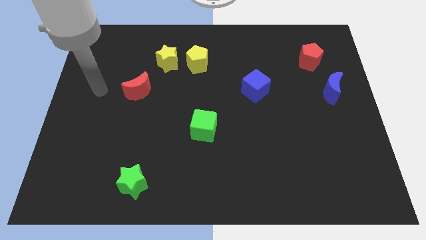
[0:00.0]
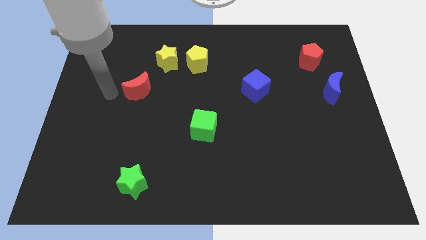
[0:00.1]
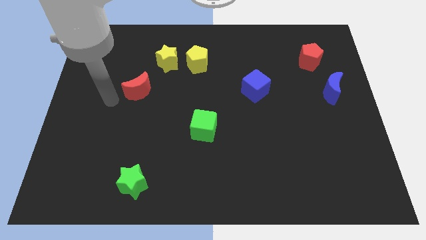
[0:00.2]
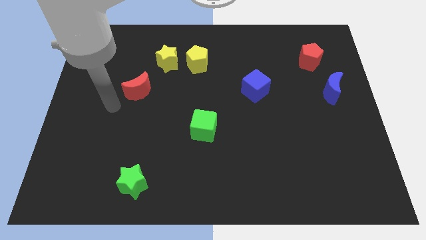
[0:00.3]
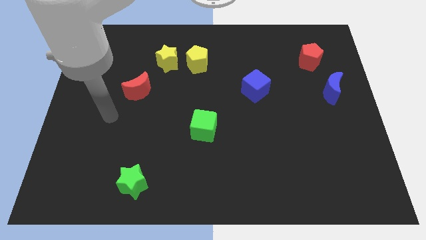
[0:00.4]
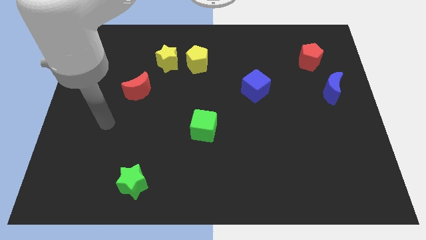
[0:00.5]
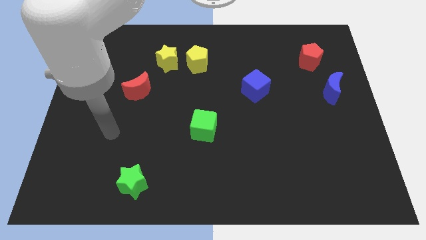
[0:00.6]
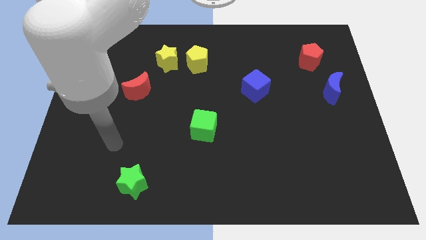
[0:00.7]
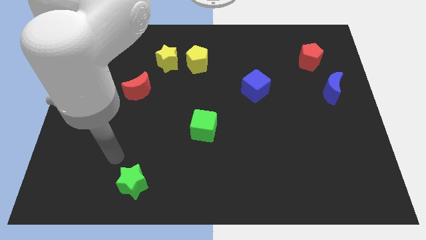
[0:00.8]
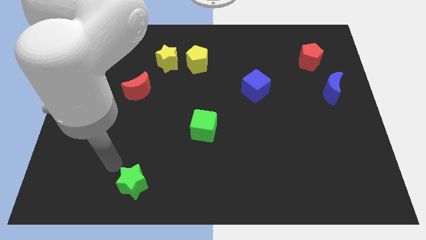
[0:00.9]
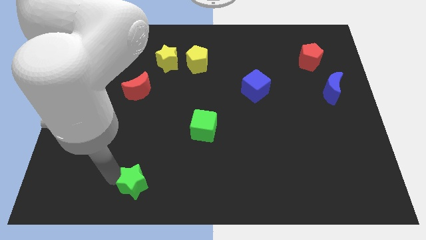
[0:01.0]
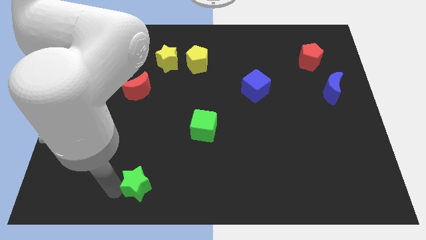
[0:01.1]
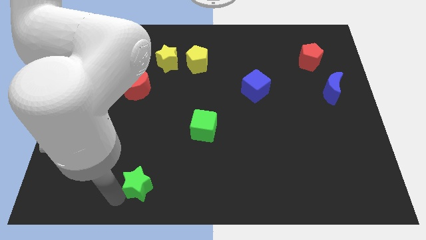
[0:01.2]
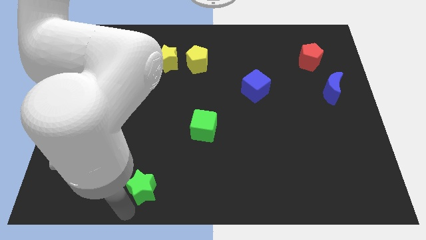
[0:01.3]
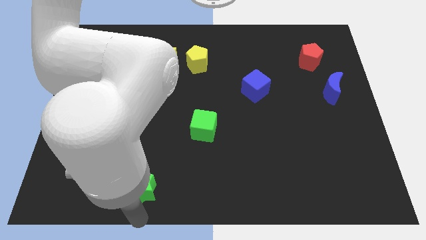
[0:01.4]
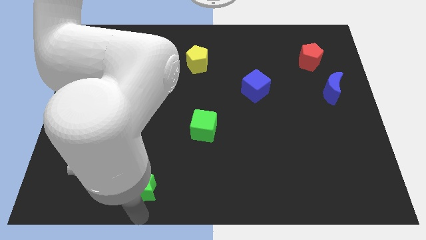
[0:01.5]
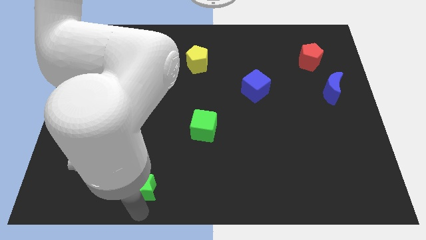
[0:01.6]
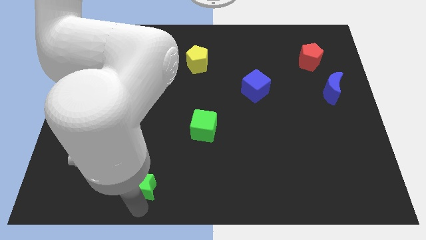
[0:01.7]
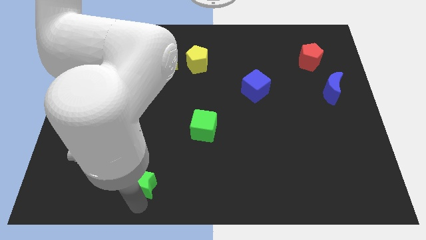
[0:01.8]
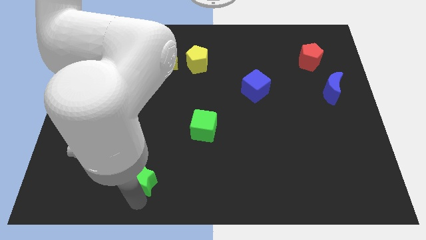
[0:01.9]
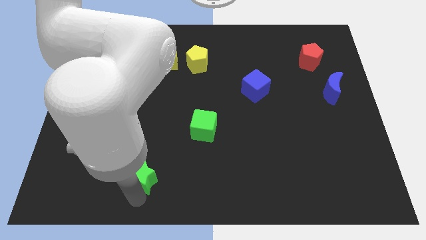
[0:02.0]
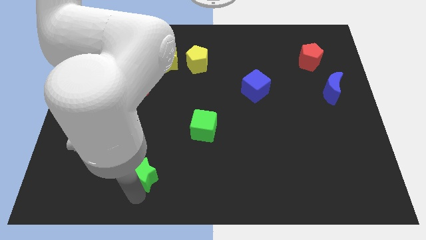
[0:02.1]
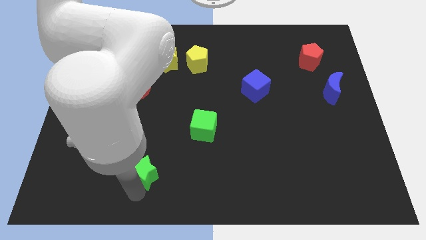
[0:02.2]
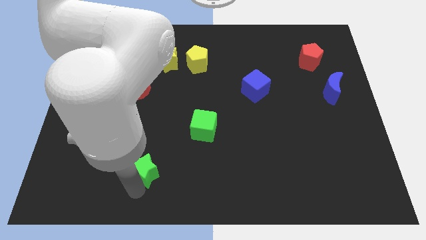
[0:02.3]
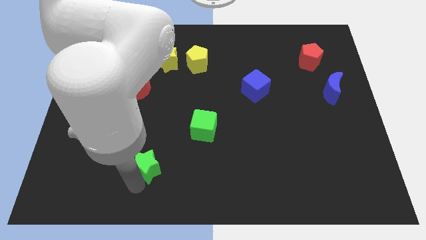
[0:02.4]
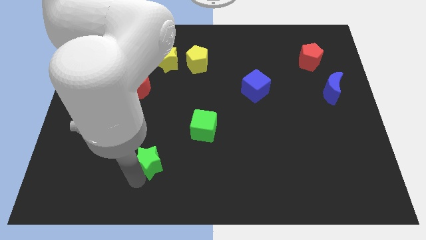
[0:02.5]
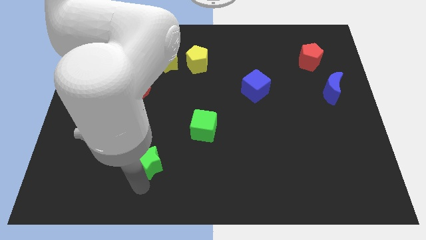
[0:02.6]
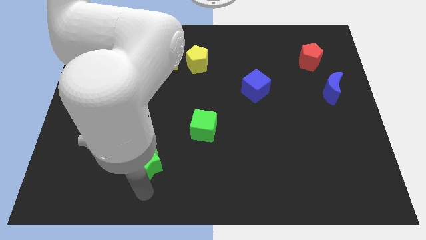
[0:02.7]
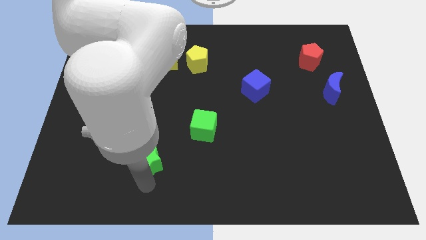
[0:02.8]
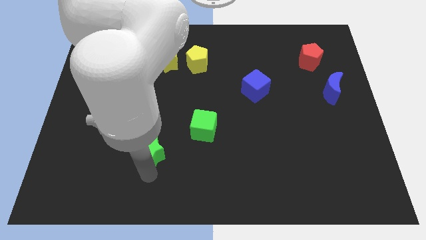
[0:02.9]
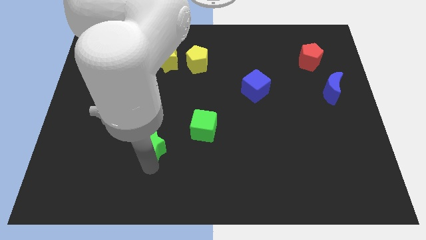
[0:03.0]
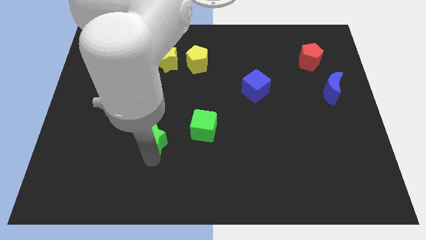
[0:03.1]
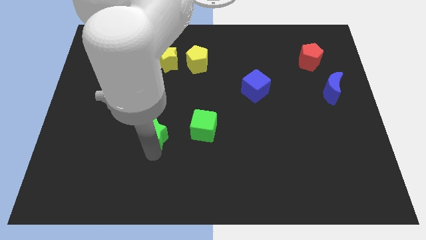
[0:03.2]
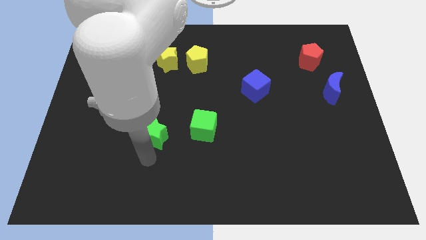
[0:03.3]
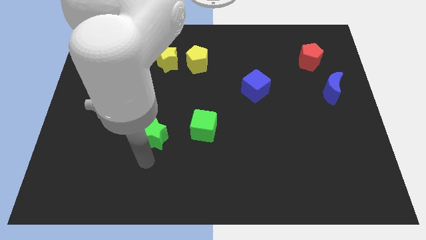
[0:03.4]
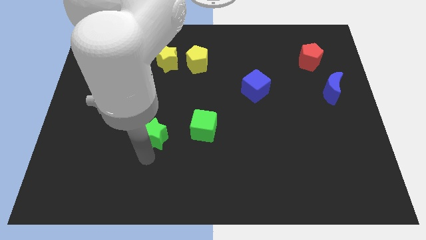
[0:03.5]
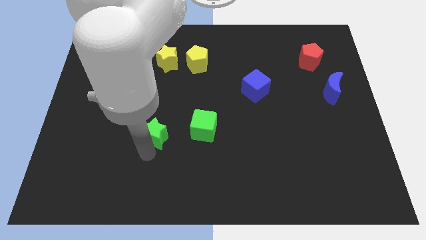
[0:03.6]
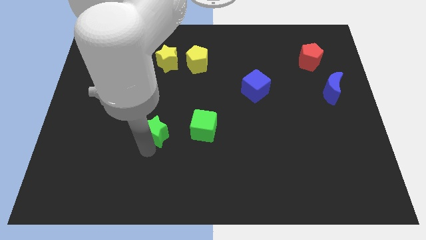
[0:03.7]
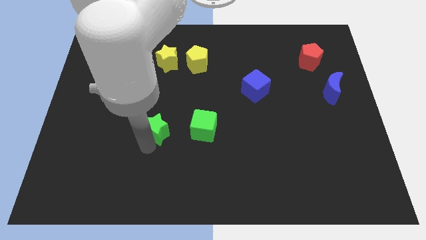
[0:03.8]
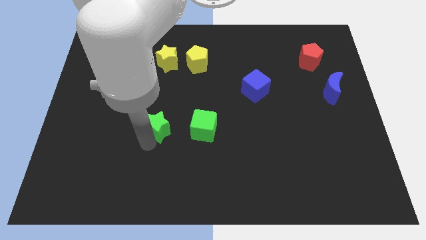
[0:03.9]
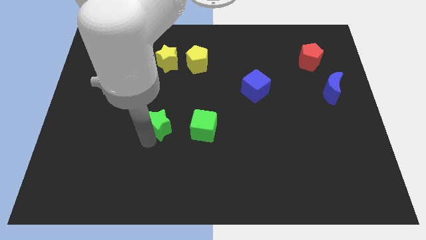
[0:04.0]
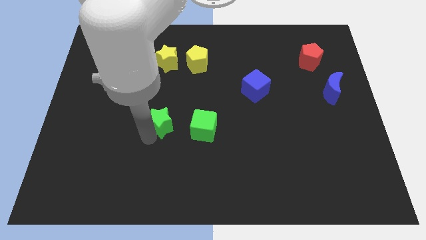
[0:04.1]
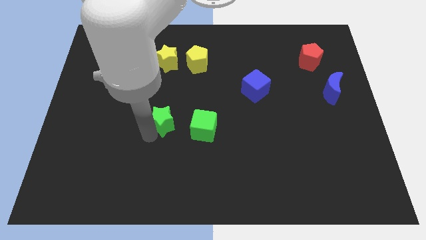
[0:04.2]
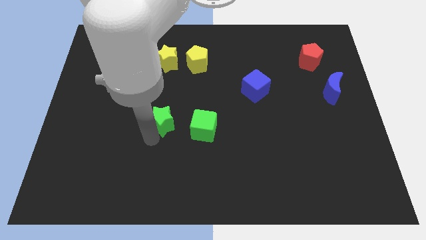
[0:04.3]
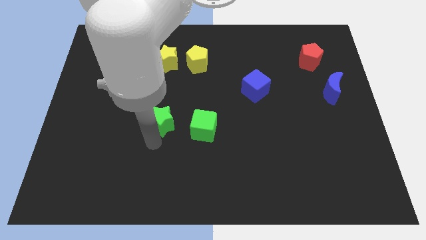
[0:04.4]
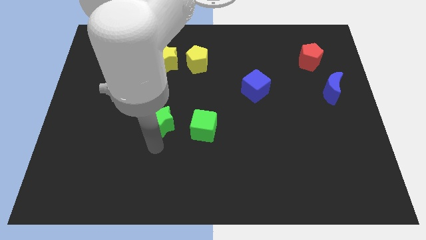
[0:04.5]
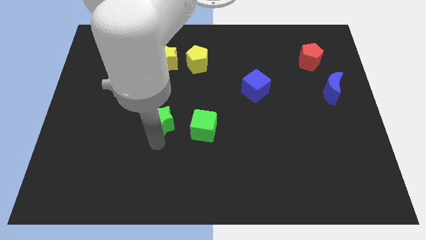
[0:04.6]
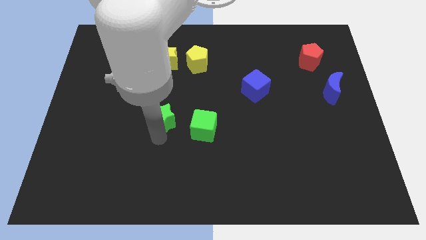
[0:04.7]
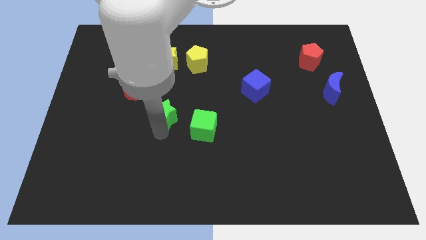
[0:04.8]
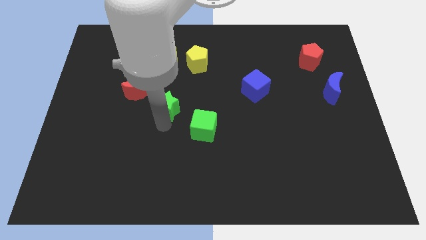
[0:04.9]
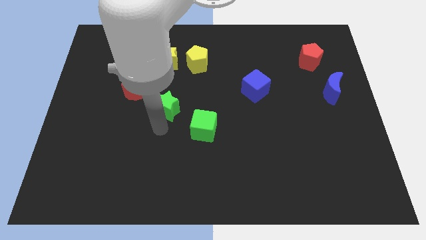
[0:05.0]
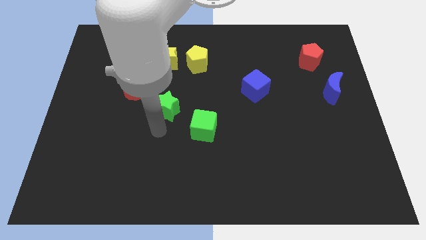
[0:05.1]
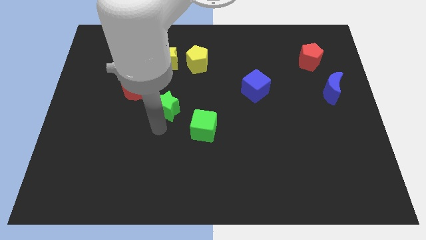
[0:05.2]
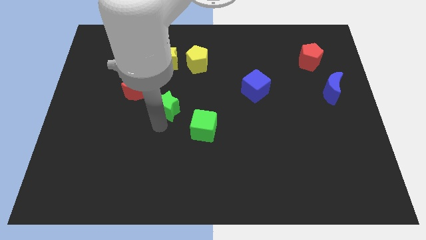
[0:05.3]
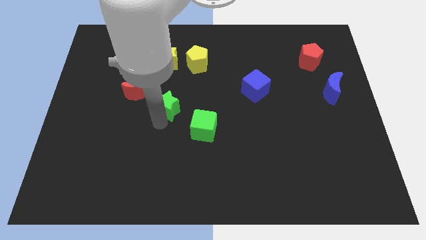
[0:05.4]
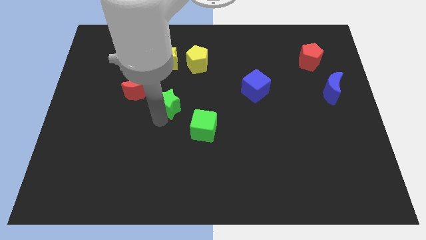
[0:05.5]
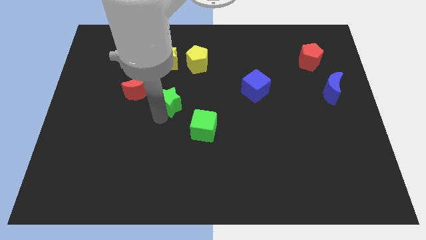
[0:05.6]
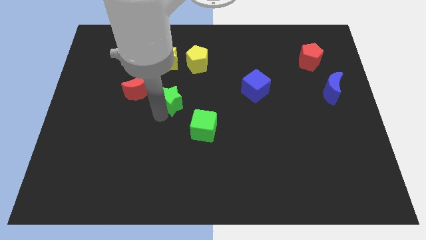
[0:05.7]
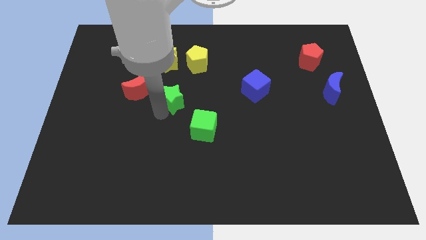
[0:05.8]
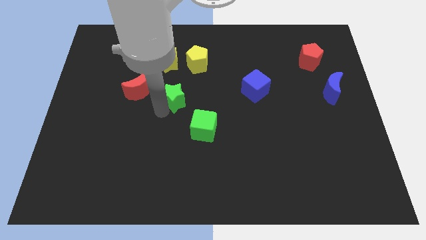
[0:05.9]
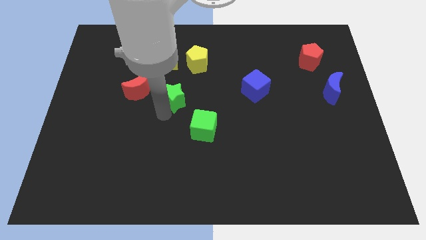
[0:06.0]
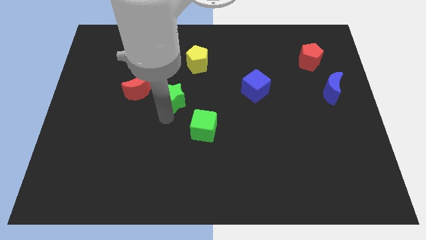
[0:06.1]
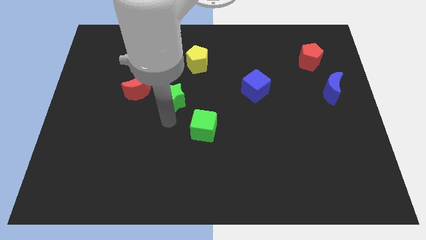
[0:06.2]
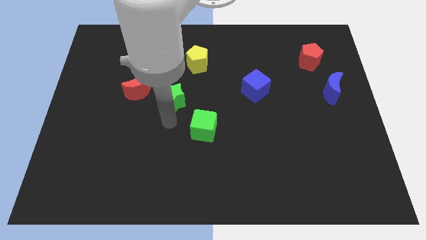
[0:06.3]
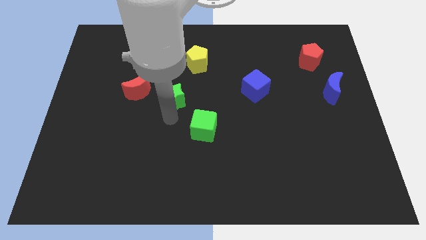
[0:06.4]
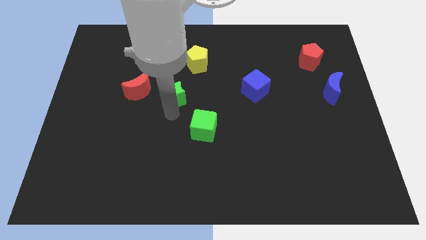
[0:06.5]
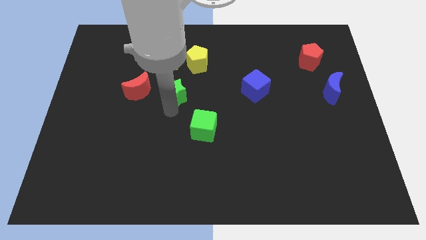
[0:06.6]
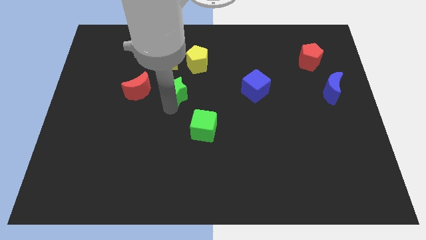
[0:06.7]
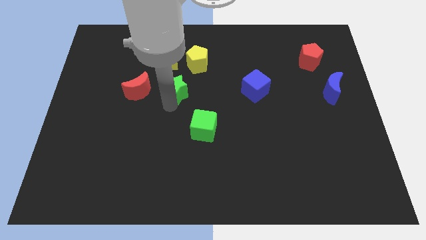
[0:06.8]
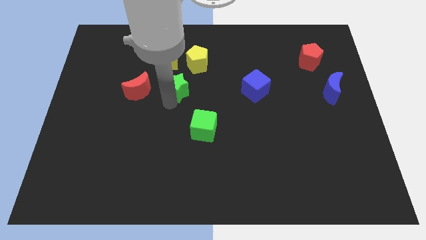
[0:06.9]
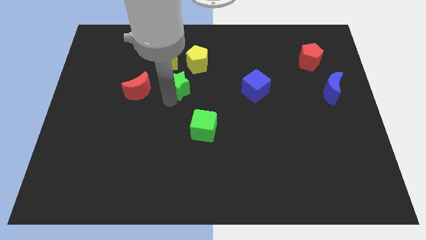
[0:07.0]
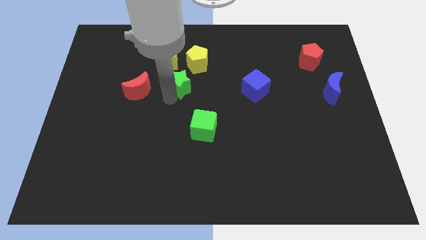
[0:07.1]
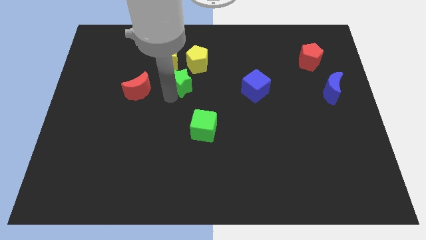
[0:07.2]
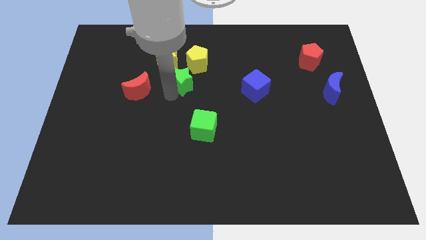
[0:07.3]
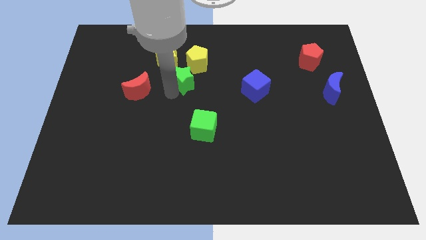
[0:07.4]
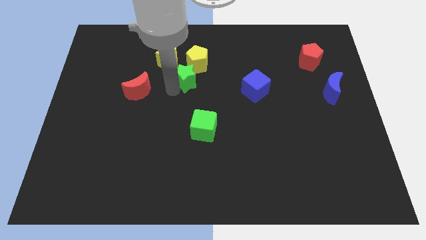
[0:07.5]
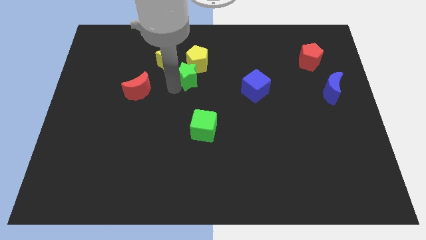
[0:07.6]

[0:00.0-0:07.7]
slide the green star to the yellow pentagon
